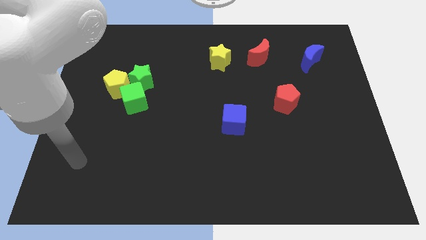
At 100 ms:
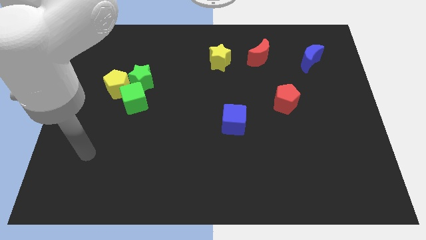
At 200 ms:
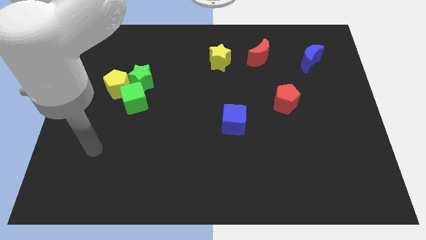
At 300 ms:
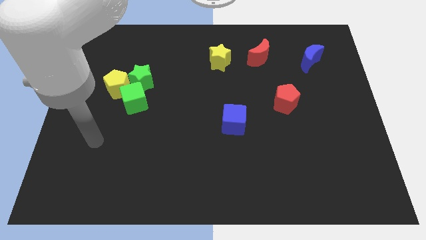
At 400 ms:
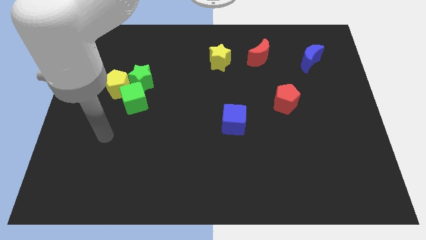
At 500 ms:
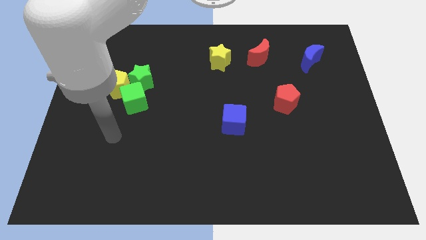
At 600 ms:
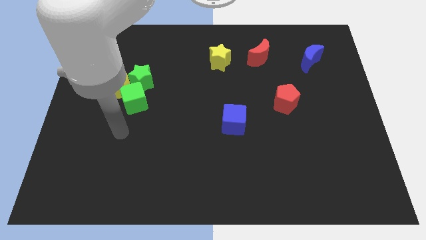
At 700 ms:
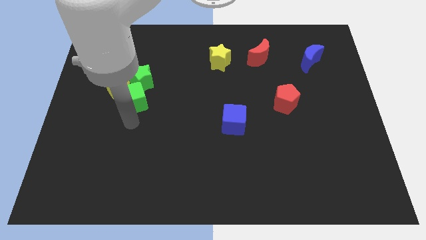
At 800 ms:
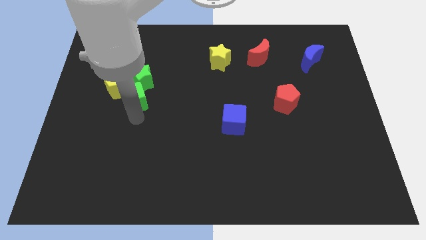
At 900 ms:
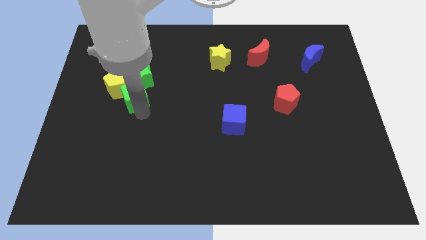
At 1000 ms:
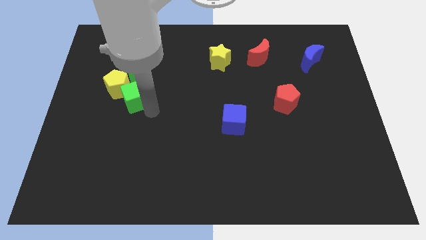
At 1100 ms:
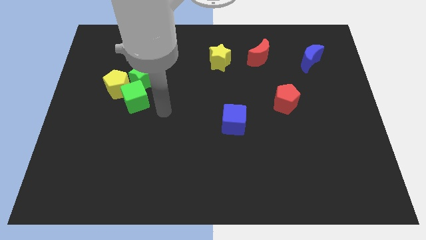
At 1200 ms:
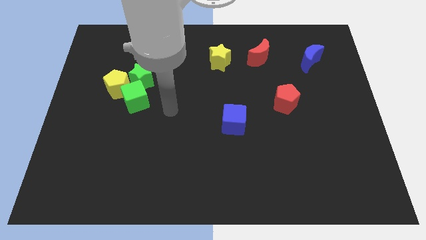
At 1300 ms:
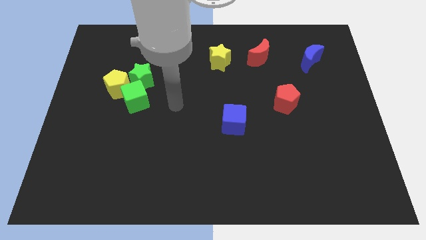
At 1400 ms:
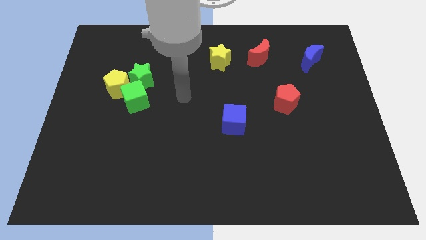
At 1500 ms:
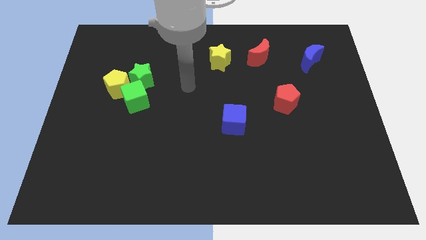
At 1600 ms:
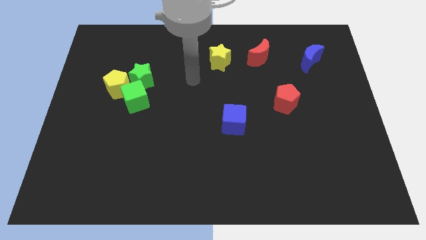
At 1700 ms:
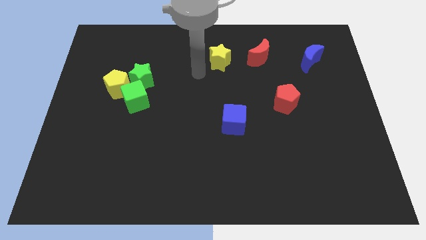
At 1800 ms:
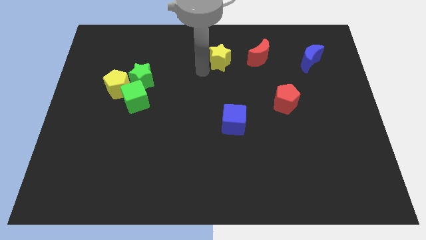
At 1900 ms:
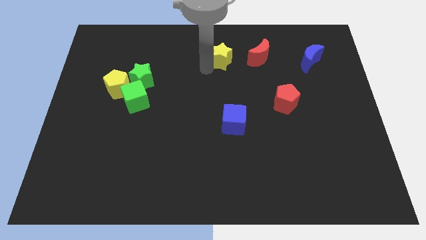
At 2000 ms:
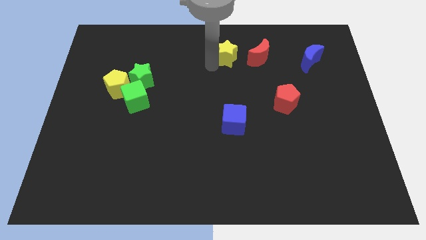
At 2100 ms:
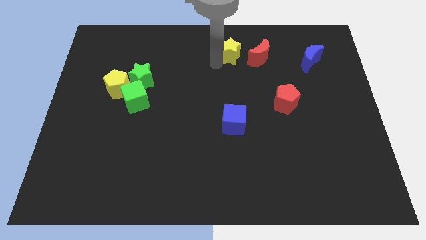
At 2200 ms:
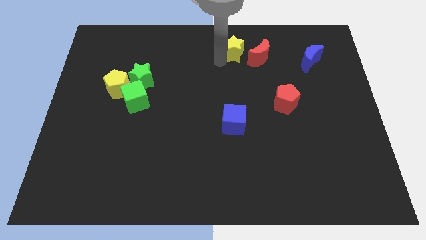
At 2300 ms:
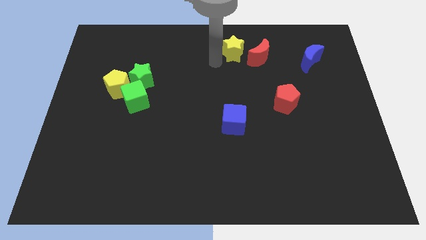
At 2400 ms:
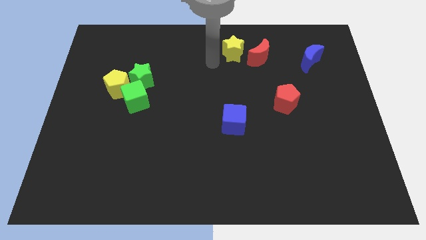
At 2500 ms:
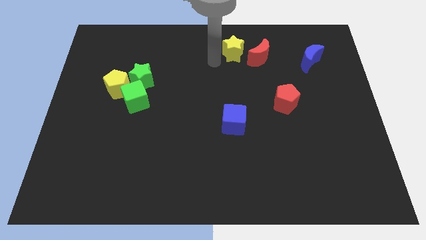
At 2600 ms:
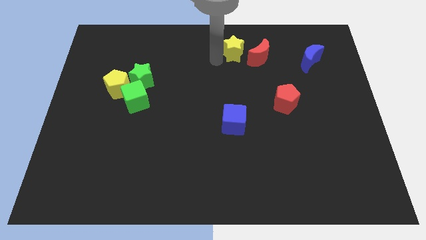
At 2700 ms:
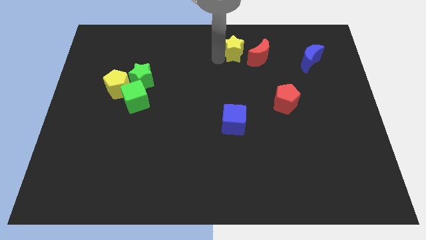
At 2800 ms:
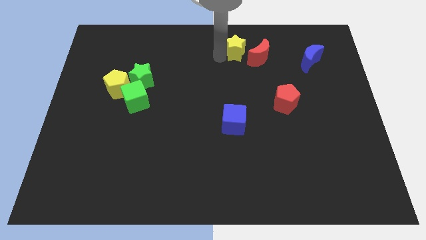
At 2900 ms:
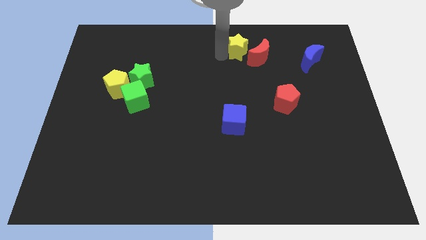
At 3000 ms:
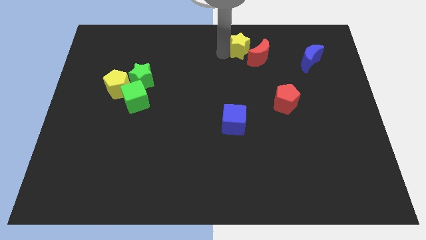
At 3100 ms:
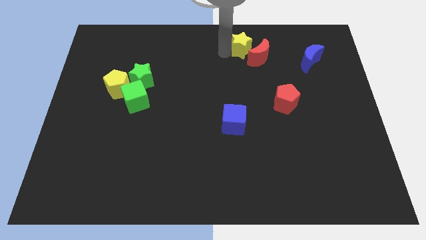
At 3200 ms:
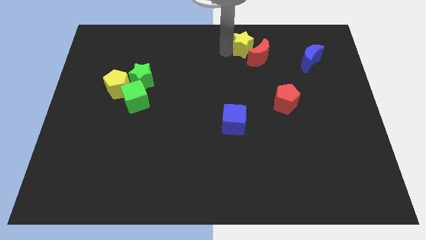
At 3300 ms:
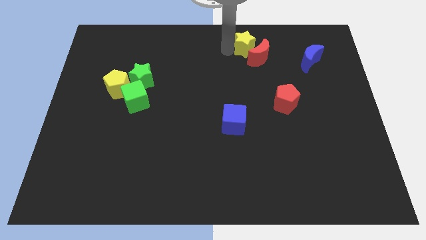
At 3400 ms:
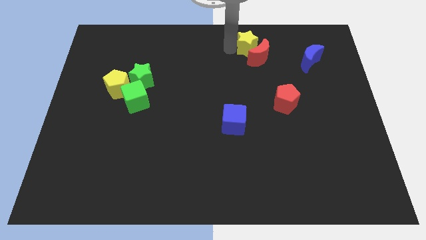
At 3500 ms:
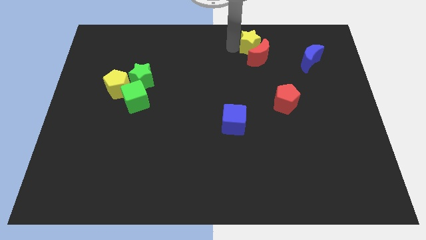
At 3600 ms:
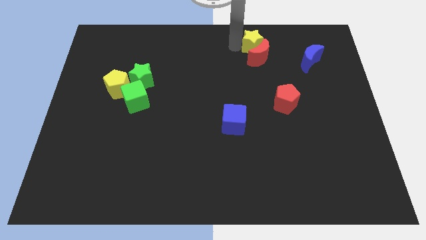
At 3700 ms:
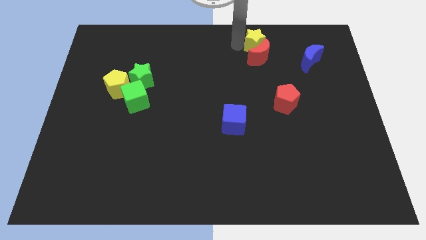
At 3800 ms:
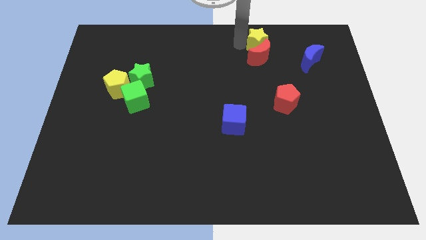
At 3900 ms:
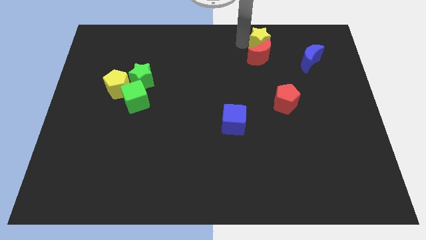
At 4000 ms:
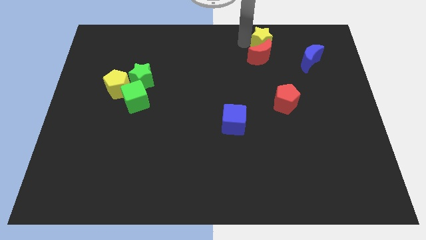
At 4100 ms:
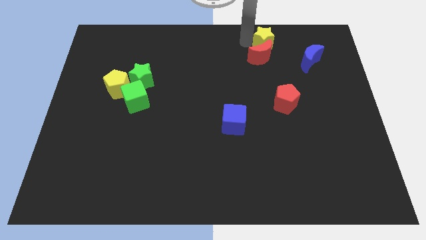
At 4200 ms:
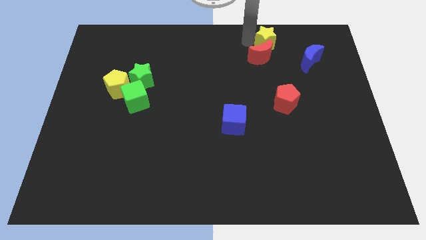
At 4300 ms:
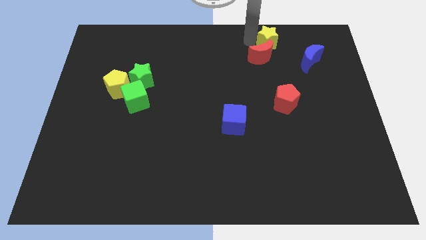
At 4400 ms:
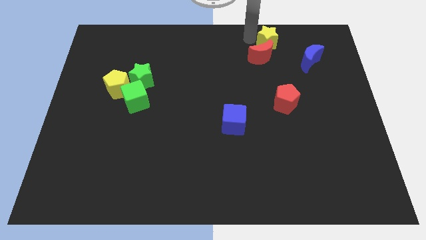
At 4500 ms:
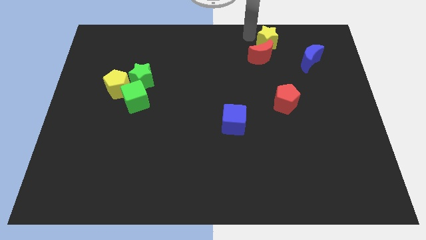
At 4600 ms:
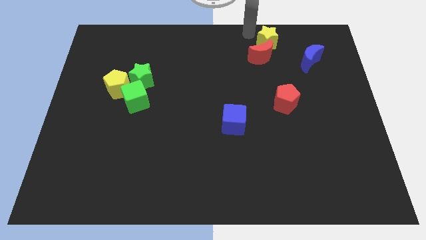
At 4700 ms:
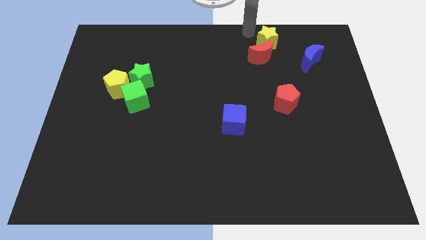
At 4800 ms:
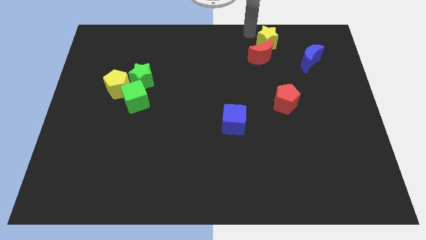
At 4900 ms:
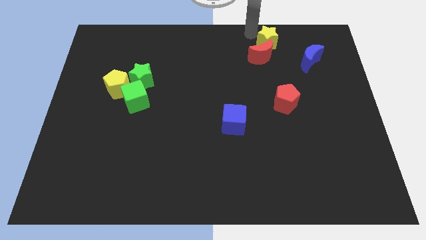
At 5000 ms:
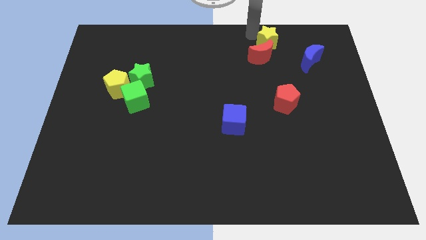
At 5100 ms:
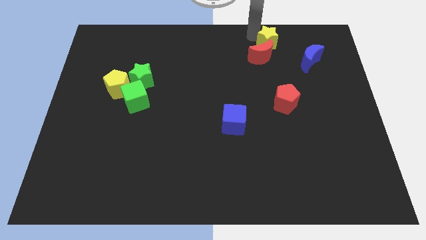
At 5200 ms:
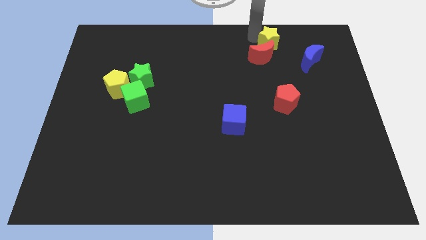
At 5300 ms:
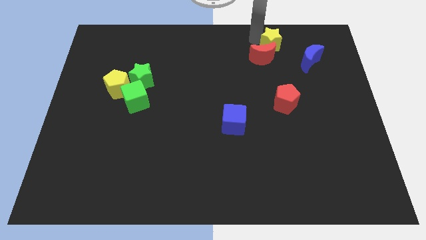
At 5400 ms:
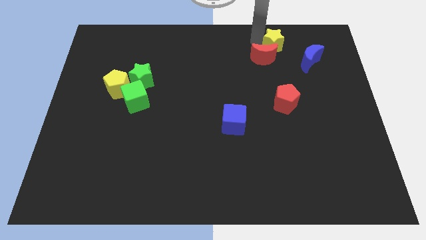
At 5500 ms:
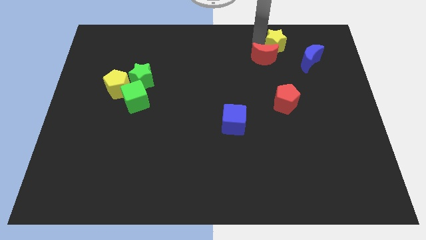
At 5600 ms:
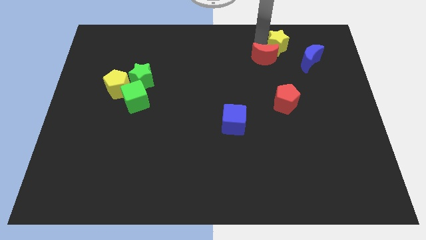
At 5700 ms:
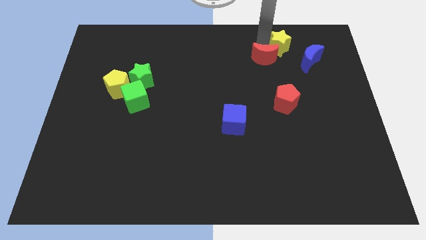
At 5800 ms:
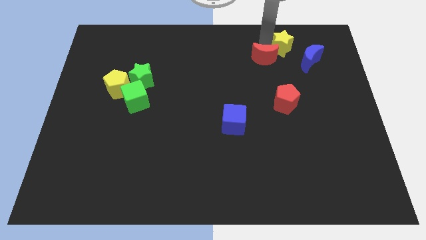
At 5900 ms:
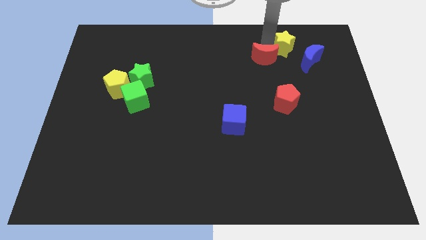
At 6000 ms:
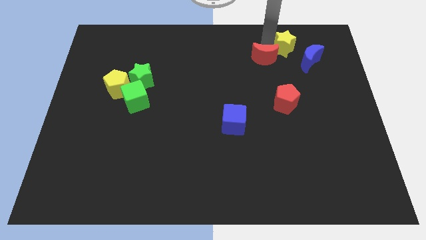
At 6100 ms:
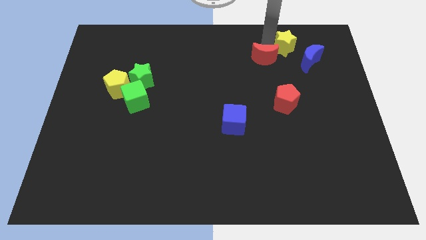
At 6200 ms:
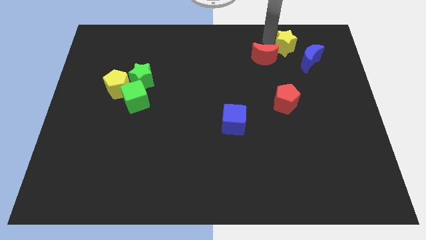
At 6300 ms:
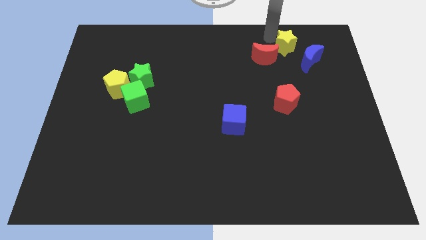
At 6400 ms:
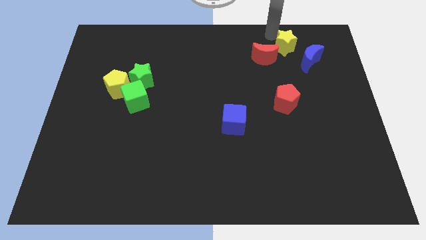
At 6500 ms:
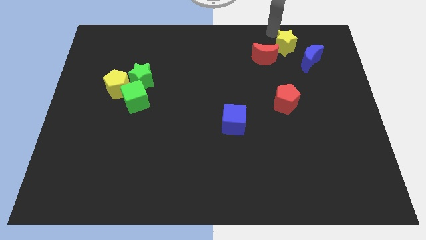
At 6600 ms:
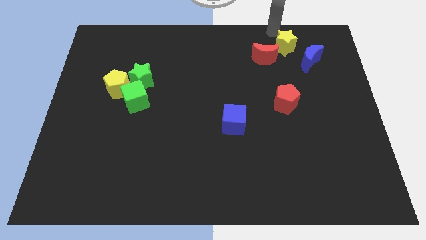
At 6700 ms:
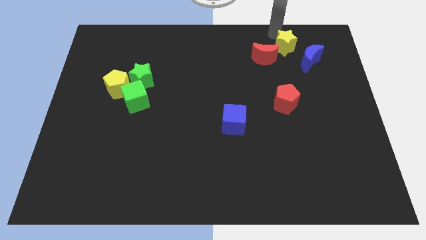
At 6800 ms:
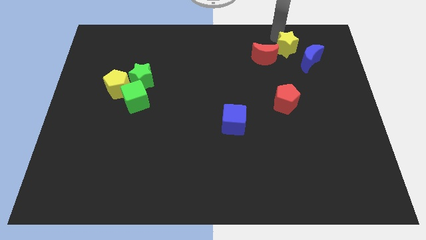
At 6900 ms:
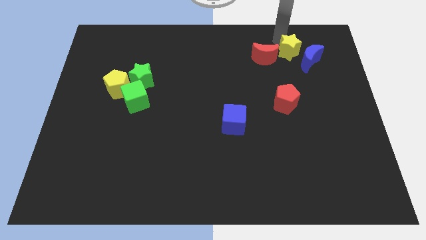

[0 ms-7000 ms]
slide the yellow star next to the blue moon

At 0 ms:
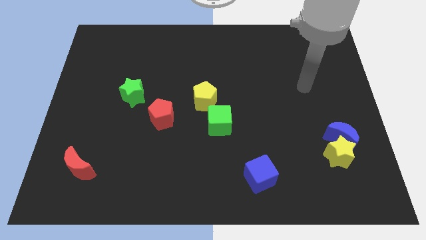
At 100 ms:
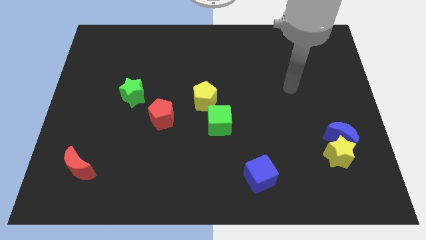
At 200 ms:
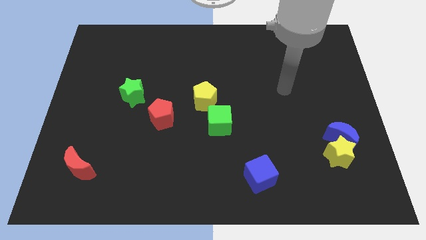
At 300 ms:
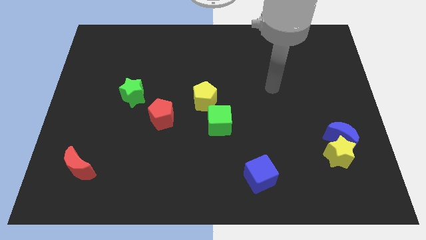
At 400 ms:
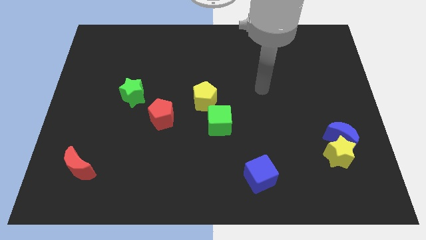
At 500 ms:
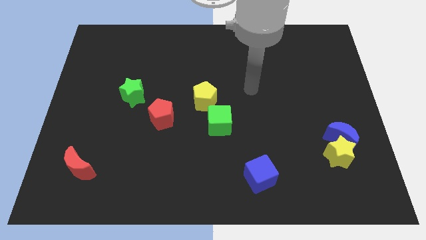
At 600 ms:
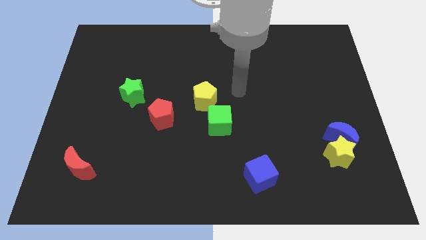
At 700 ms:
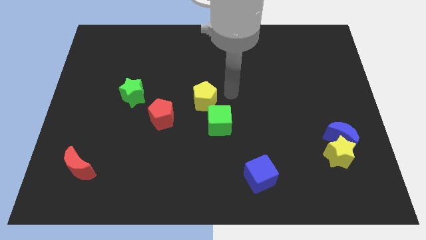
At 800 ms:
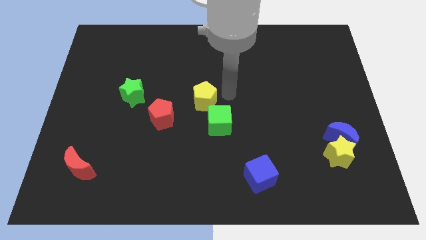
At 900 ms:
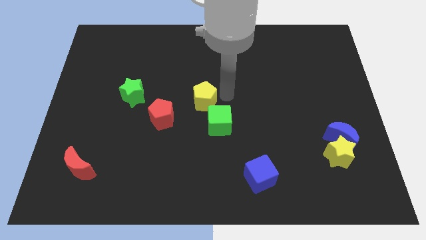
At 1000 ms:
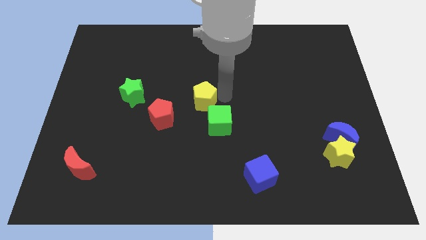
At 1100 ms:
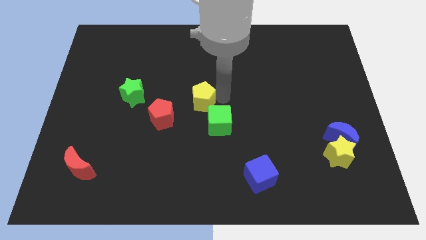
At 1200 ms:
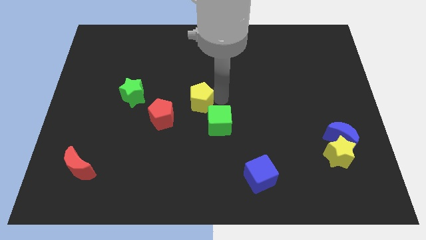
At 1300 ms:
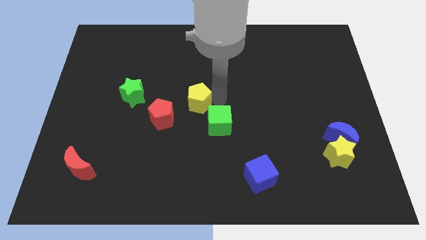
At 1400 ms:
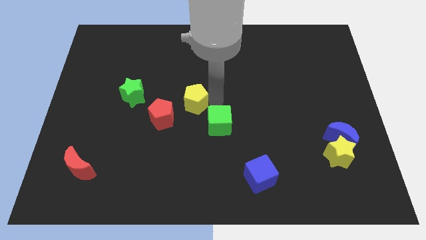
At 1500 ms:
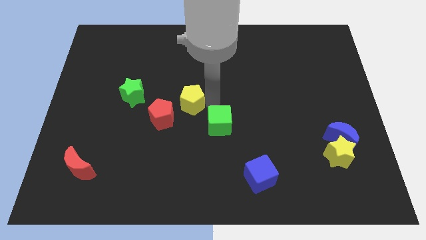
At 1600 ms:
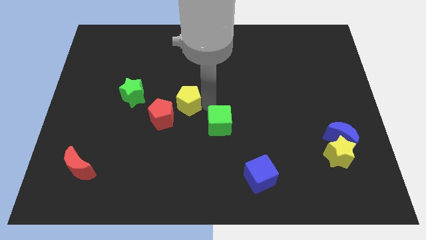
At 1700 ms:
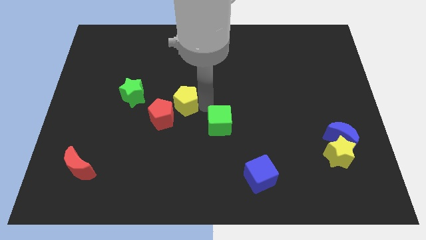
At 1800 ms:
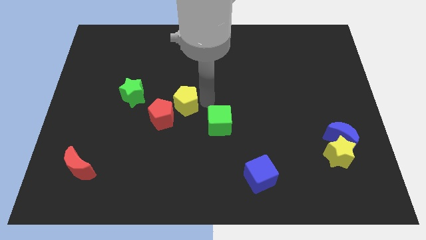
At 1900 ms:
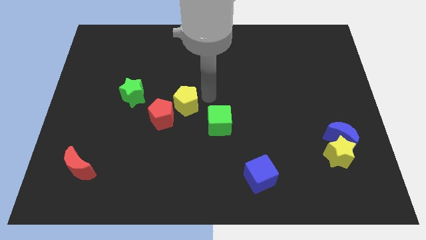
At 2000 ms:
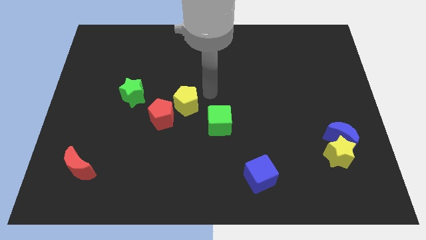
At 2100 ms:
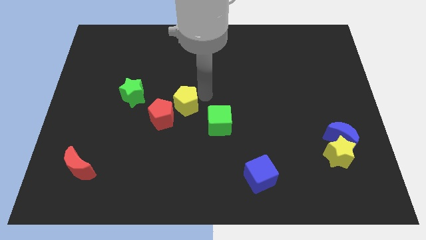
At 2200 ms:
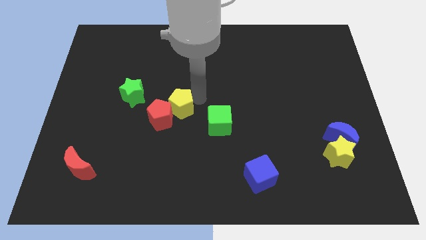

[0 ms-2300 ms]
slide the yellow pentagon to the red pentagon
